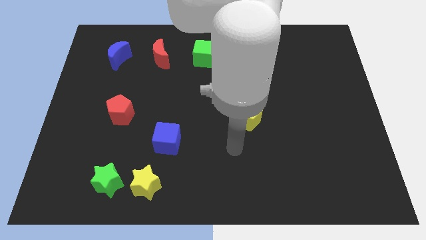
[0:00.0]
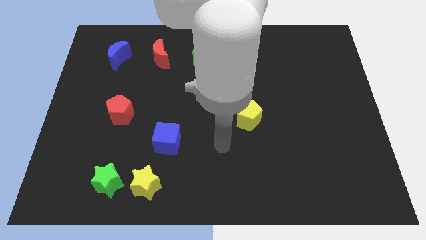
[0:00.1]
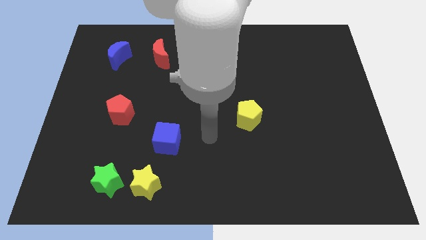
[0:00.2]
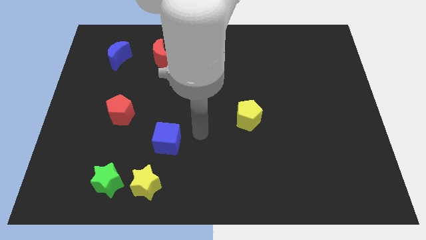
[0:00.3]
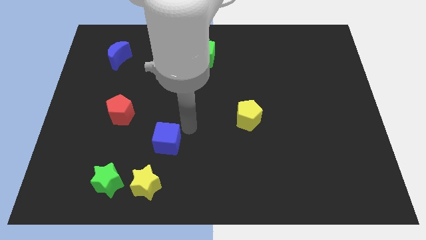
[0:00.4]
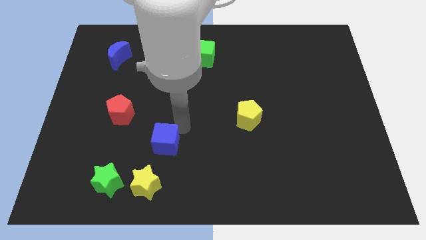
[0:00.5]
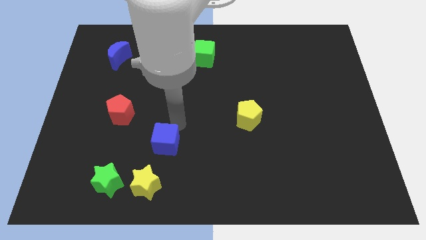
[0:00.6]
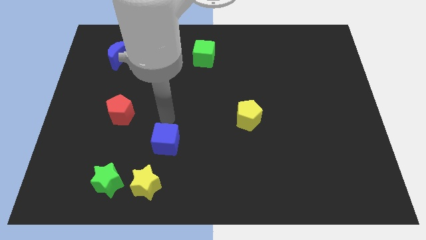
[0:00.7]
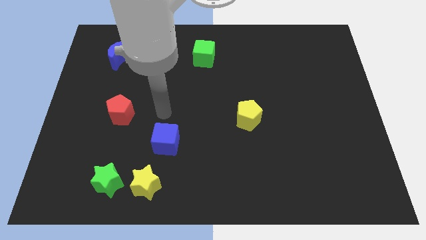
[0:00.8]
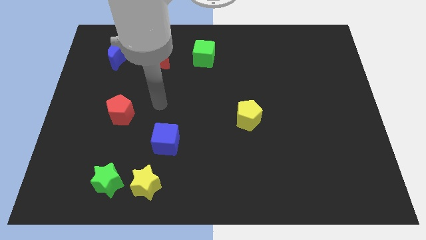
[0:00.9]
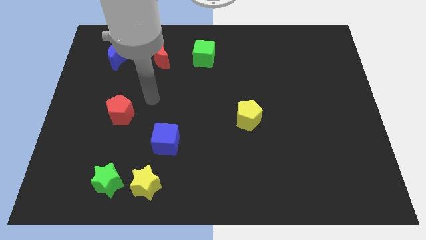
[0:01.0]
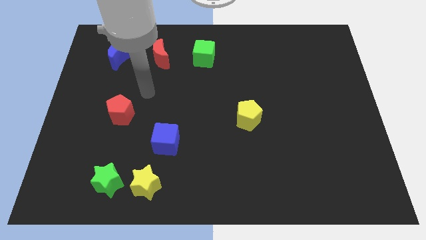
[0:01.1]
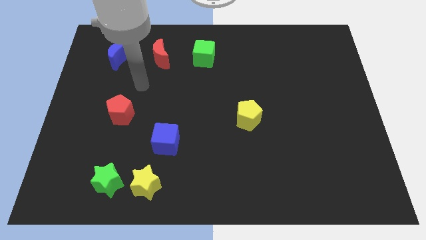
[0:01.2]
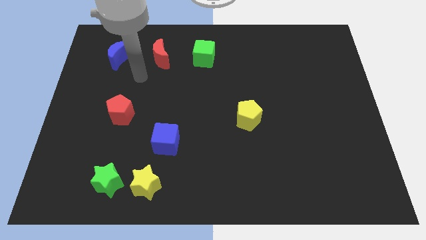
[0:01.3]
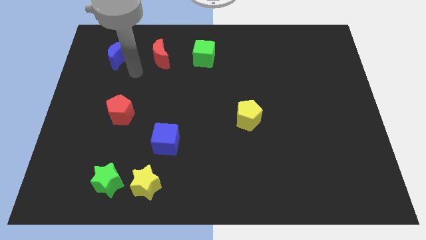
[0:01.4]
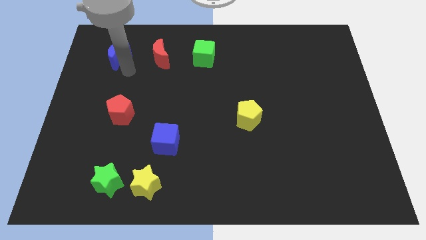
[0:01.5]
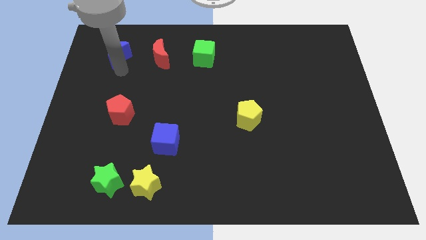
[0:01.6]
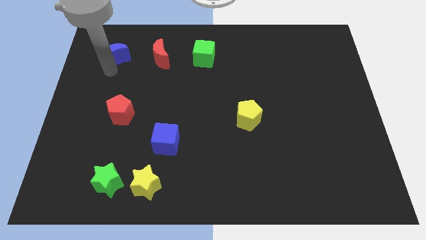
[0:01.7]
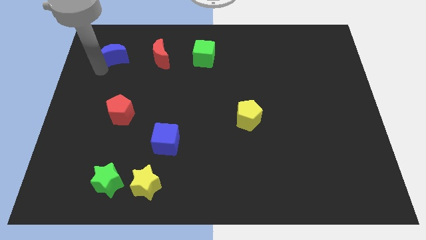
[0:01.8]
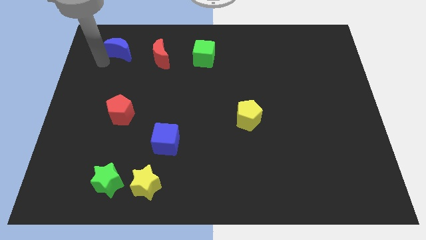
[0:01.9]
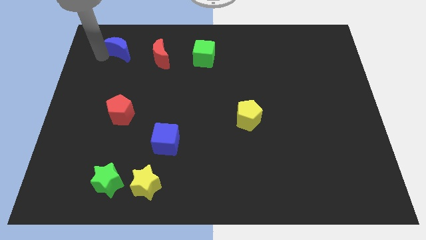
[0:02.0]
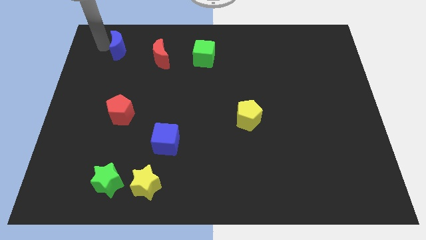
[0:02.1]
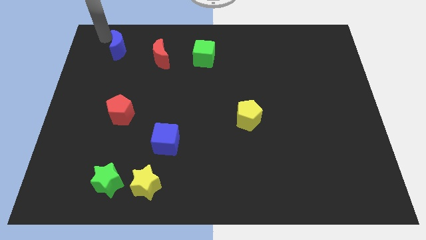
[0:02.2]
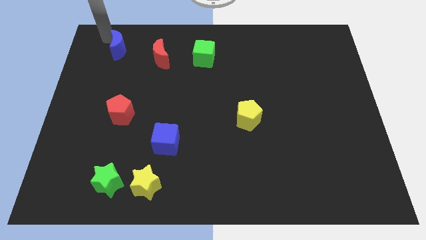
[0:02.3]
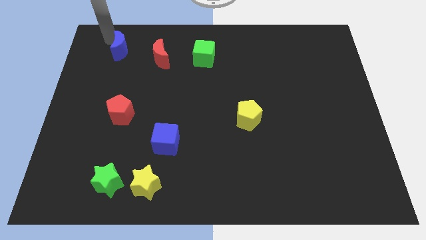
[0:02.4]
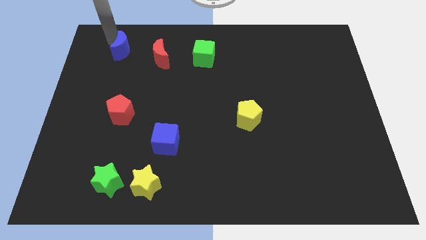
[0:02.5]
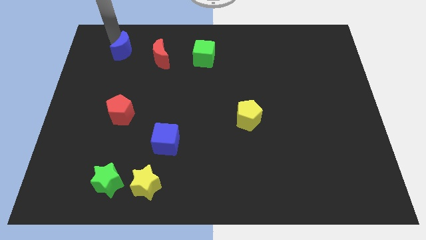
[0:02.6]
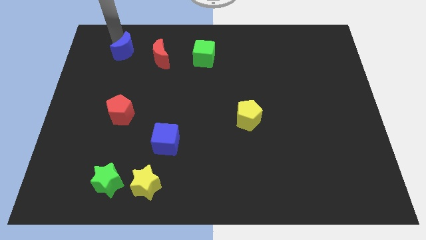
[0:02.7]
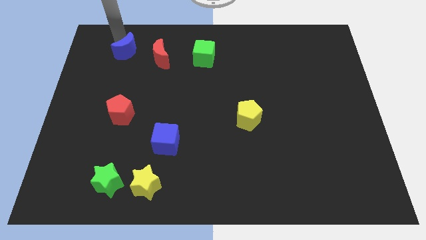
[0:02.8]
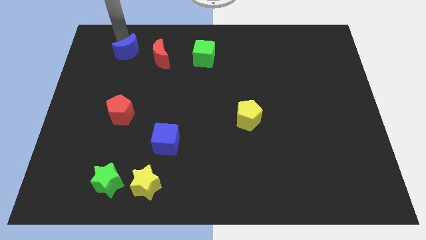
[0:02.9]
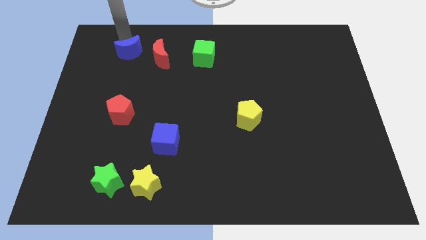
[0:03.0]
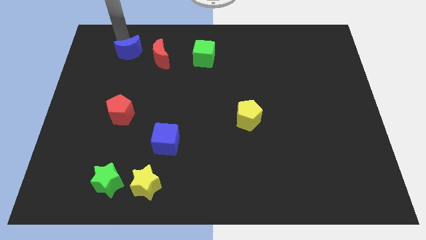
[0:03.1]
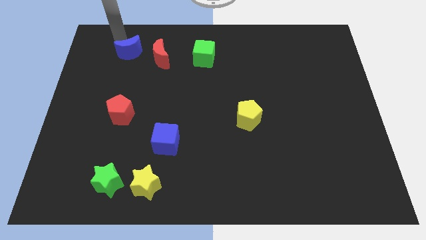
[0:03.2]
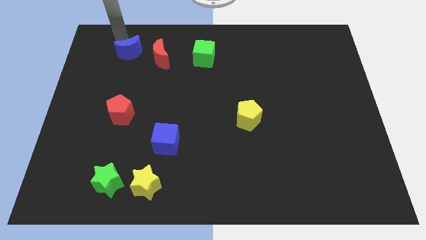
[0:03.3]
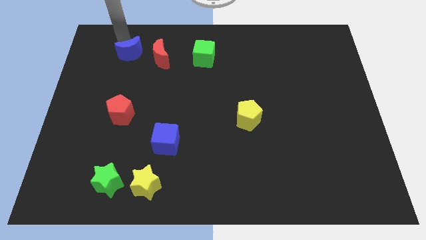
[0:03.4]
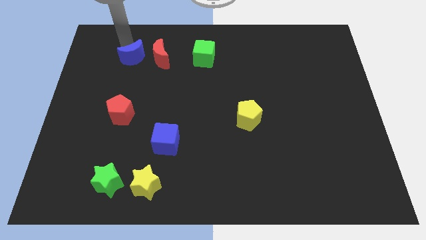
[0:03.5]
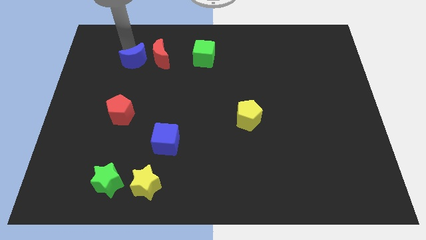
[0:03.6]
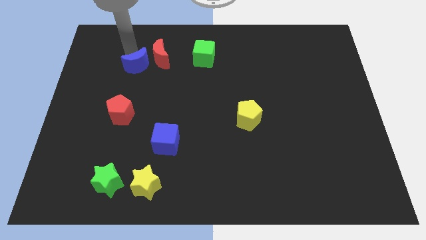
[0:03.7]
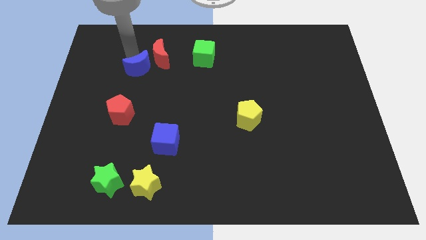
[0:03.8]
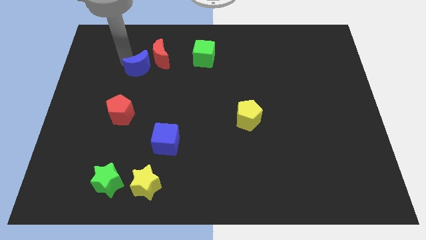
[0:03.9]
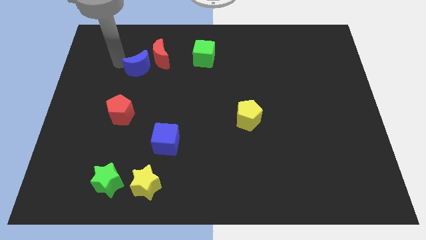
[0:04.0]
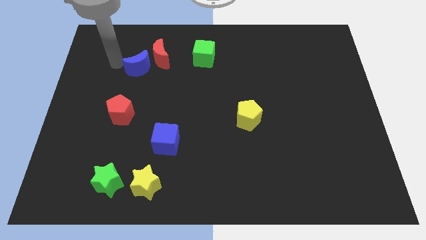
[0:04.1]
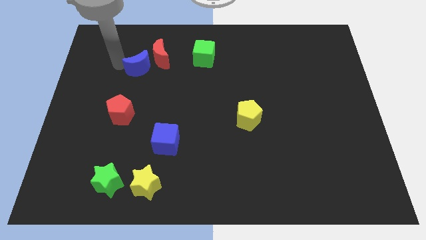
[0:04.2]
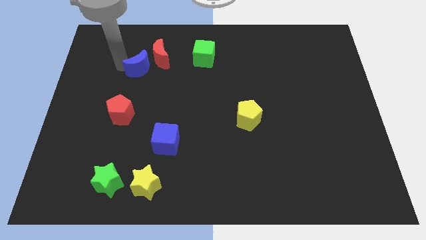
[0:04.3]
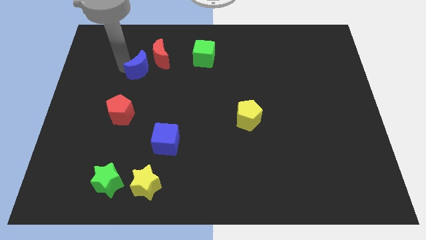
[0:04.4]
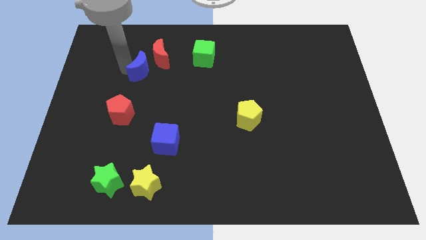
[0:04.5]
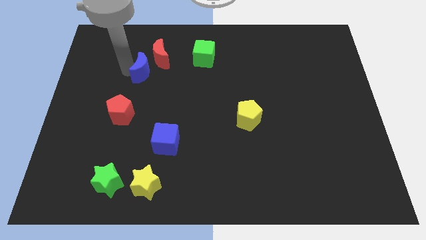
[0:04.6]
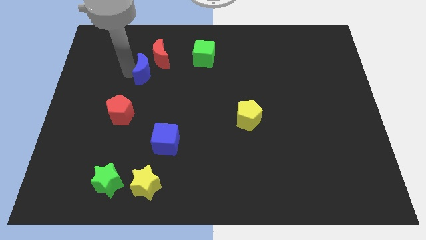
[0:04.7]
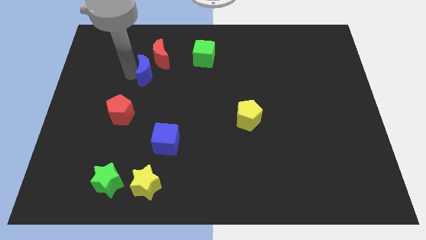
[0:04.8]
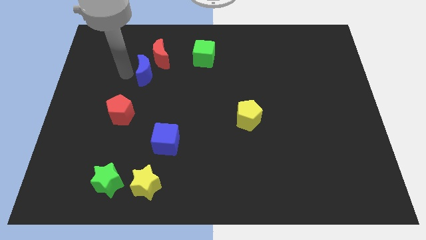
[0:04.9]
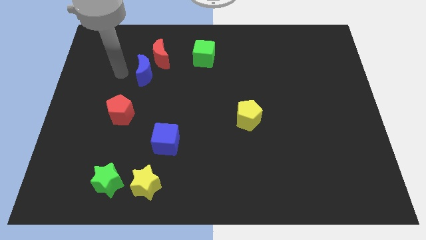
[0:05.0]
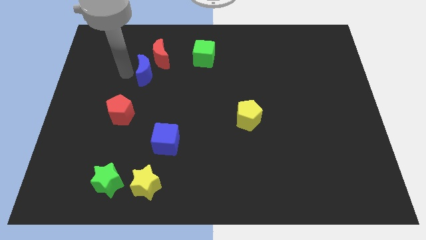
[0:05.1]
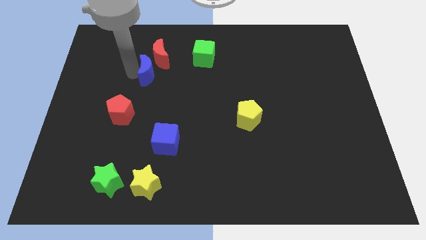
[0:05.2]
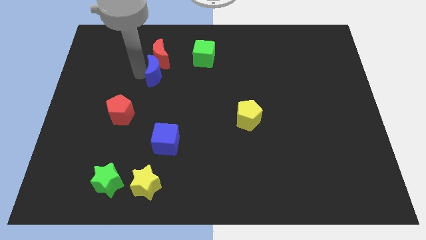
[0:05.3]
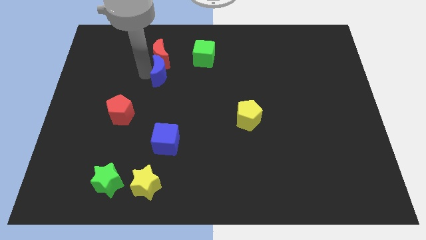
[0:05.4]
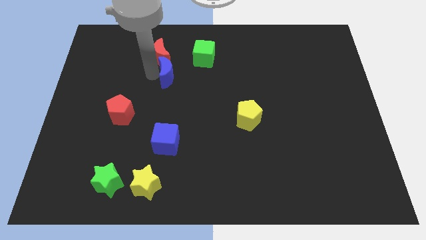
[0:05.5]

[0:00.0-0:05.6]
move the blue moon to the bottom left side of the green cube

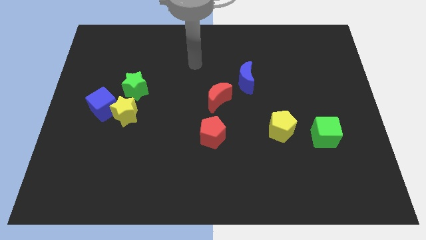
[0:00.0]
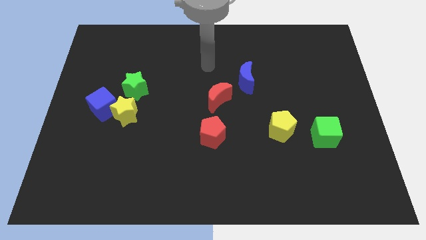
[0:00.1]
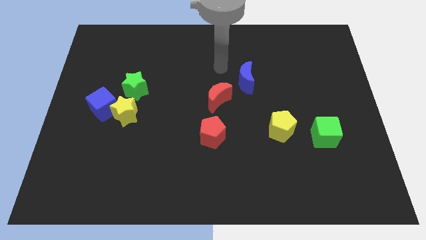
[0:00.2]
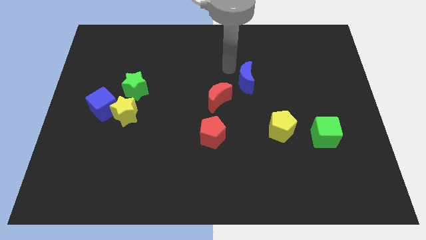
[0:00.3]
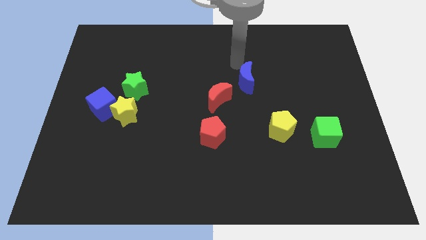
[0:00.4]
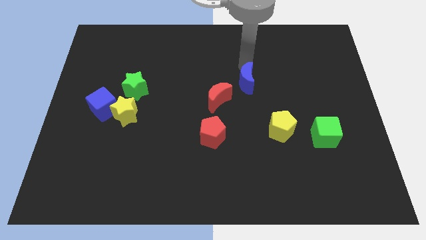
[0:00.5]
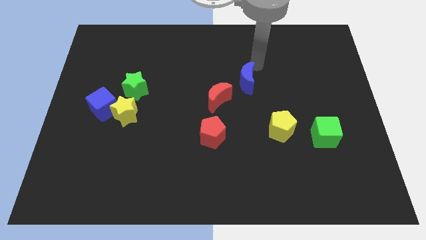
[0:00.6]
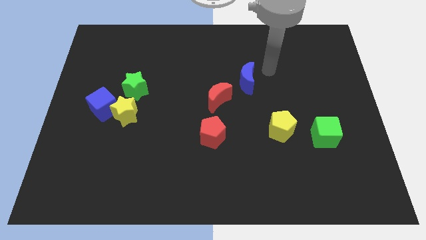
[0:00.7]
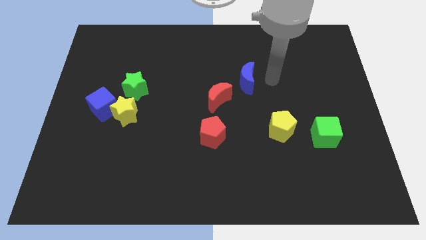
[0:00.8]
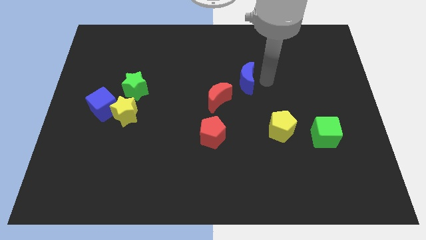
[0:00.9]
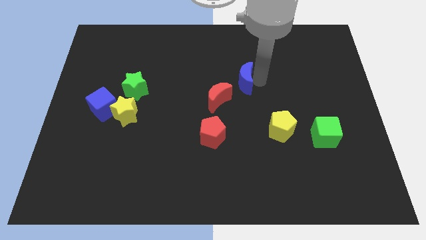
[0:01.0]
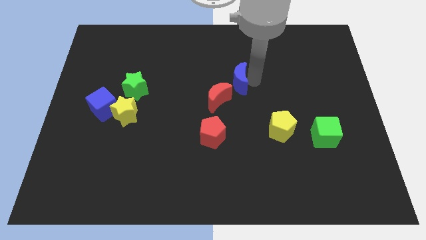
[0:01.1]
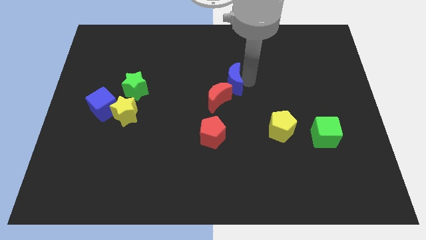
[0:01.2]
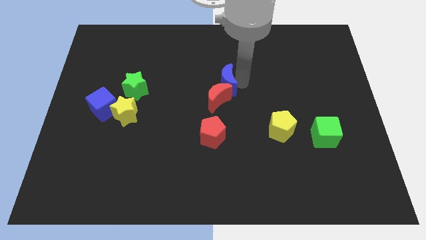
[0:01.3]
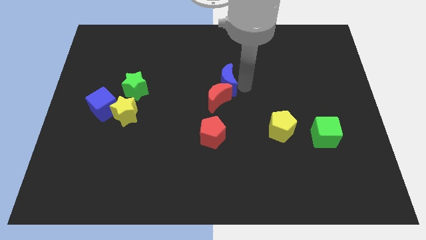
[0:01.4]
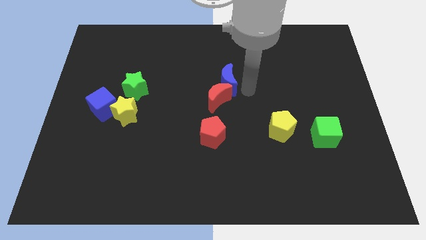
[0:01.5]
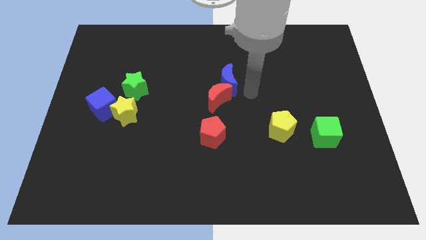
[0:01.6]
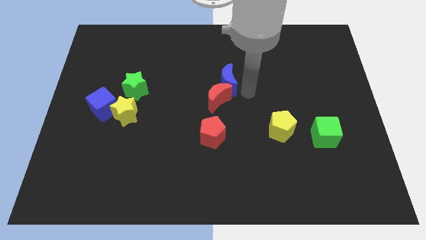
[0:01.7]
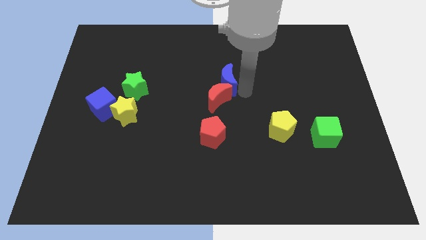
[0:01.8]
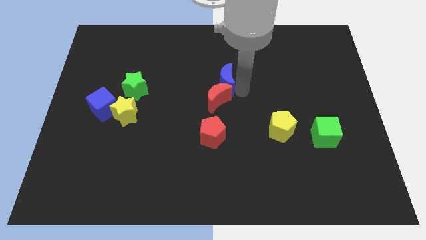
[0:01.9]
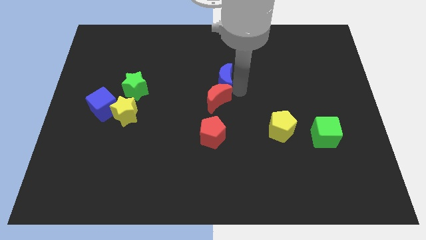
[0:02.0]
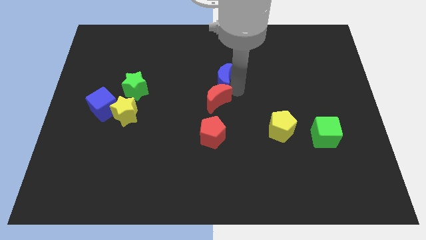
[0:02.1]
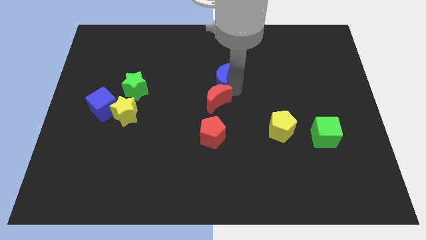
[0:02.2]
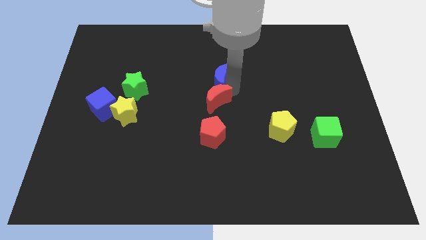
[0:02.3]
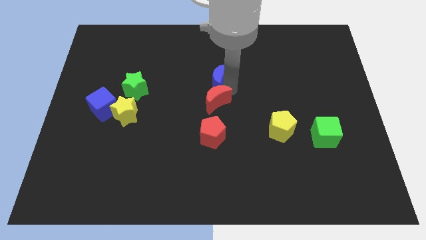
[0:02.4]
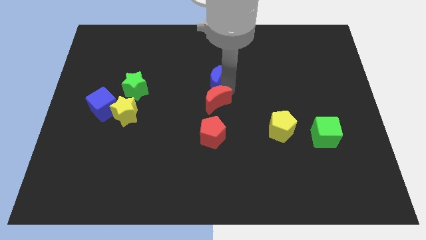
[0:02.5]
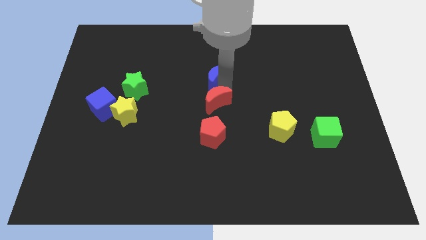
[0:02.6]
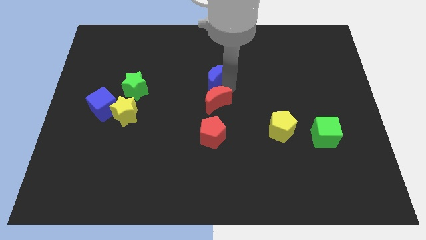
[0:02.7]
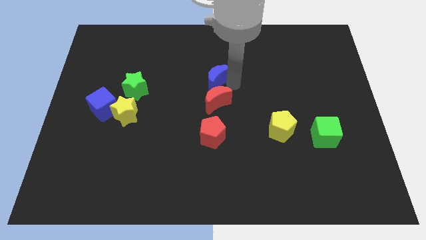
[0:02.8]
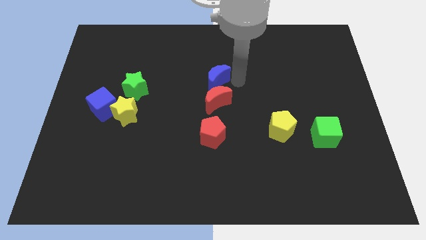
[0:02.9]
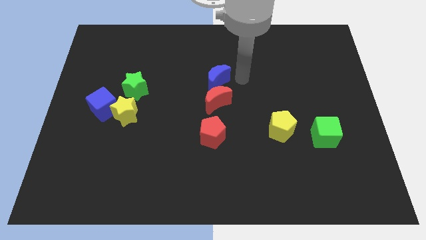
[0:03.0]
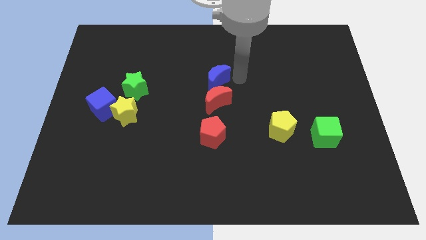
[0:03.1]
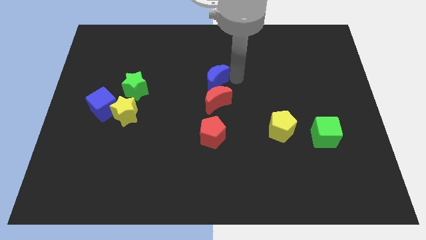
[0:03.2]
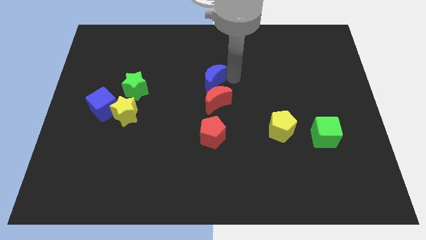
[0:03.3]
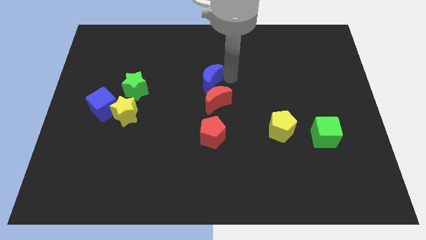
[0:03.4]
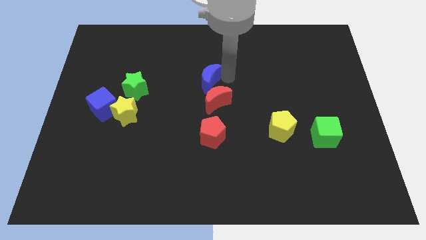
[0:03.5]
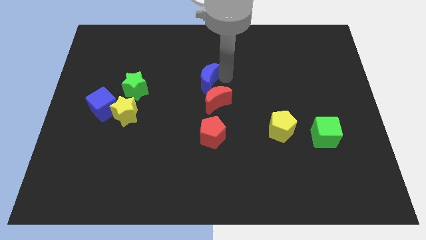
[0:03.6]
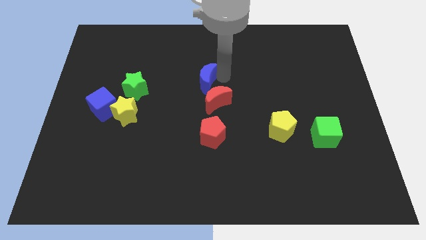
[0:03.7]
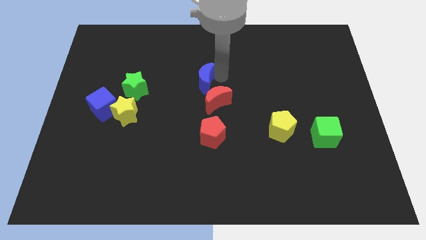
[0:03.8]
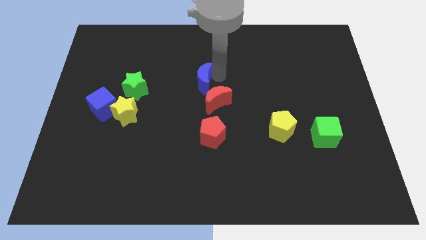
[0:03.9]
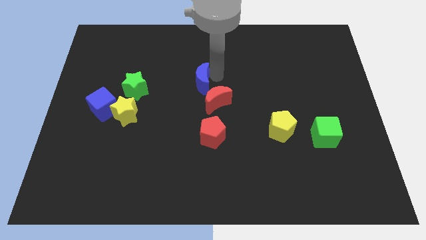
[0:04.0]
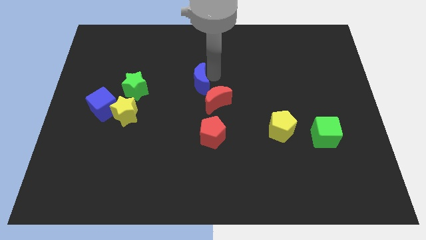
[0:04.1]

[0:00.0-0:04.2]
slide the blue moon to the right side of the green star
